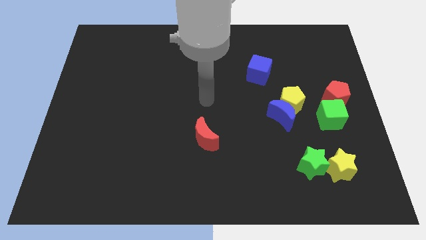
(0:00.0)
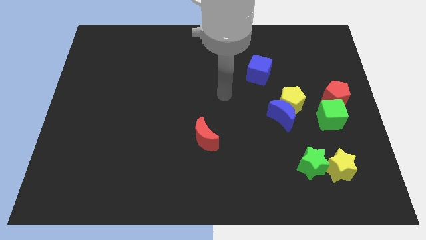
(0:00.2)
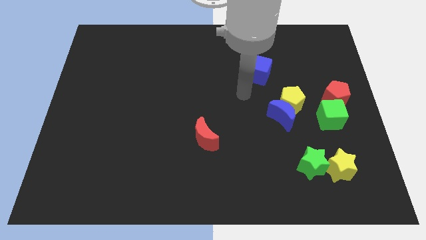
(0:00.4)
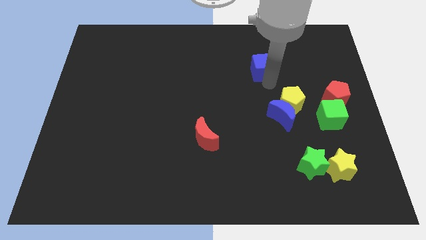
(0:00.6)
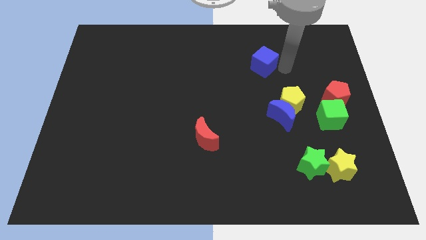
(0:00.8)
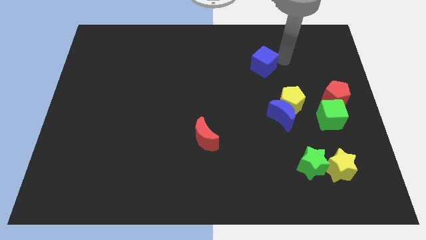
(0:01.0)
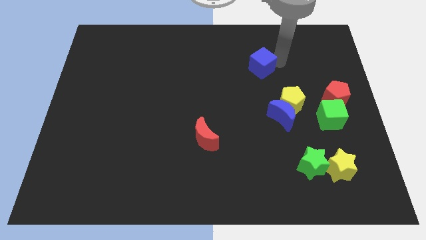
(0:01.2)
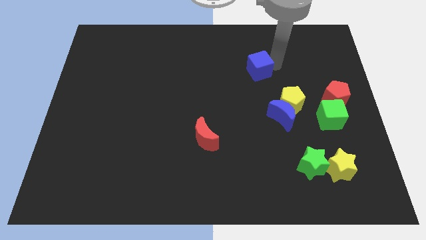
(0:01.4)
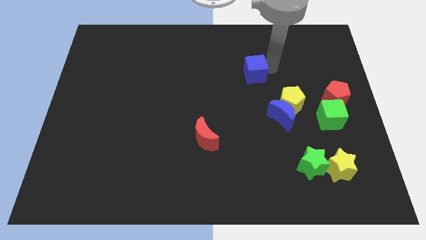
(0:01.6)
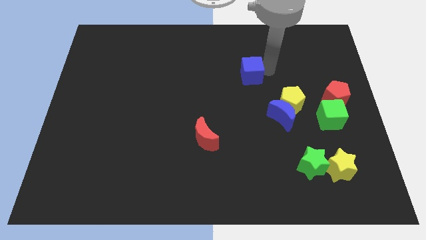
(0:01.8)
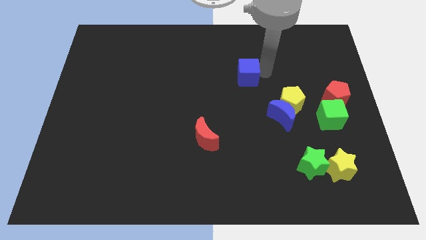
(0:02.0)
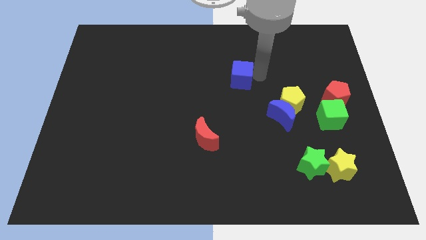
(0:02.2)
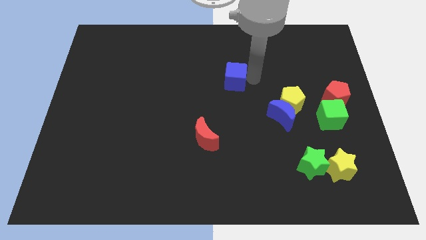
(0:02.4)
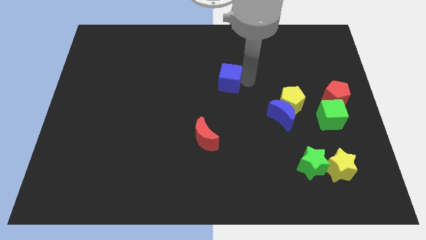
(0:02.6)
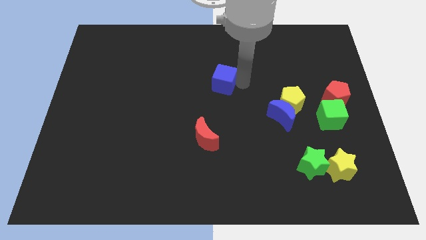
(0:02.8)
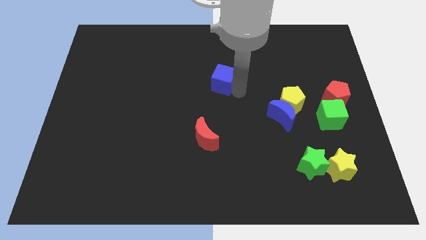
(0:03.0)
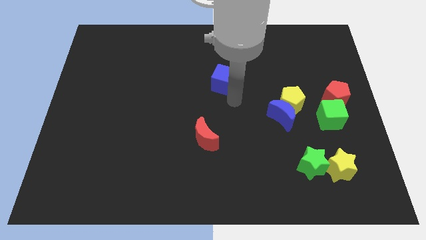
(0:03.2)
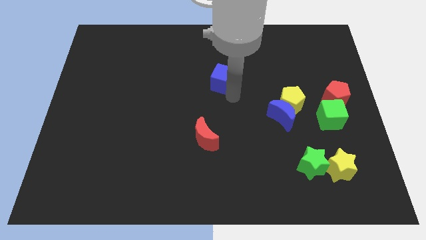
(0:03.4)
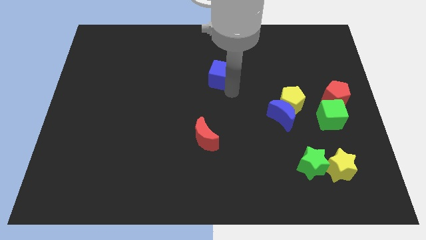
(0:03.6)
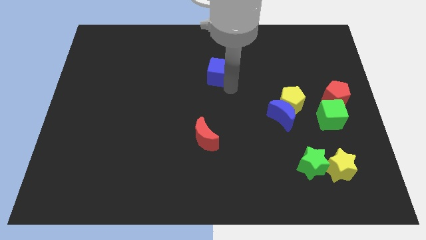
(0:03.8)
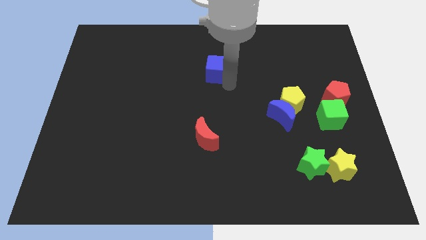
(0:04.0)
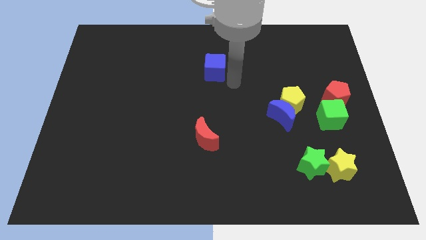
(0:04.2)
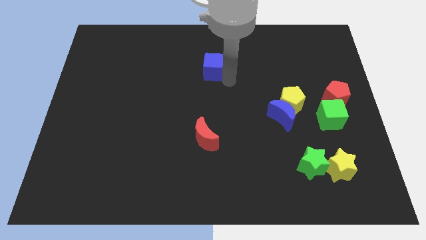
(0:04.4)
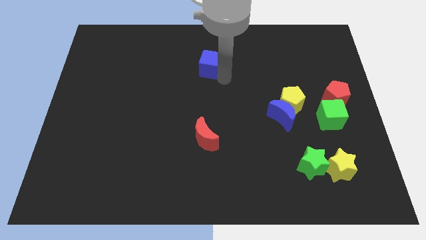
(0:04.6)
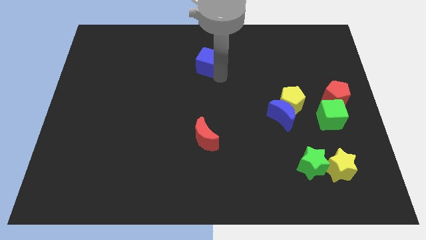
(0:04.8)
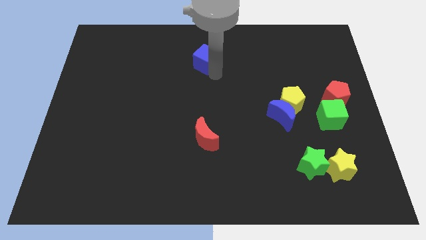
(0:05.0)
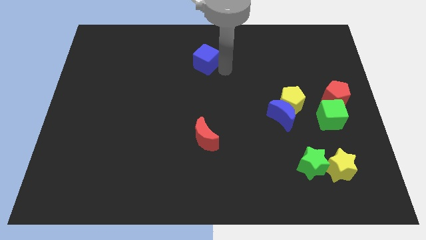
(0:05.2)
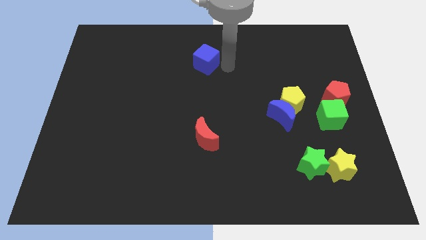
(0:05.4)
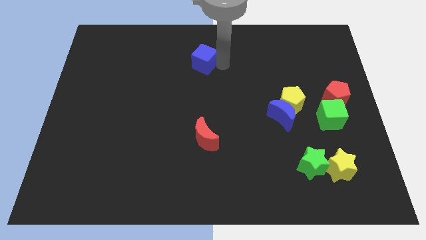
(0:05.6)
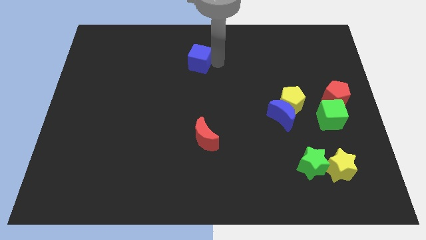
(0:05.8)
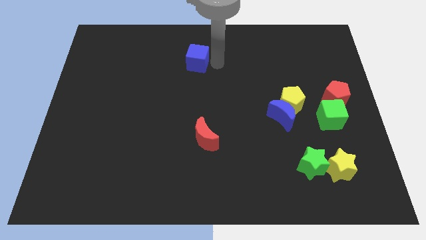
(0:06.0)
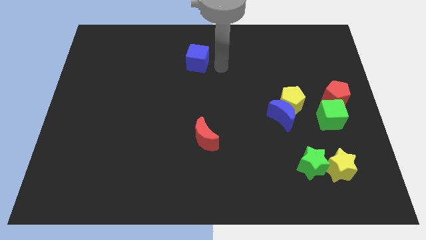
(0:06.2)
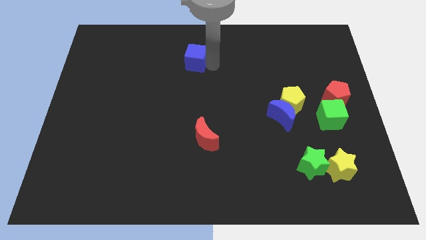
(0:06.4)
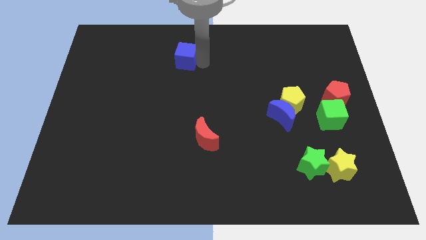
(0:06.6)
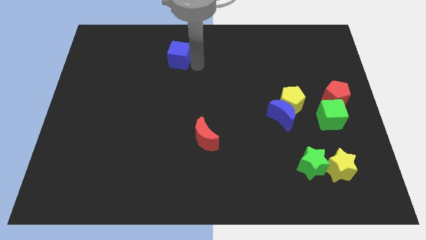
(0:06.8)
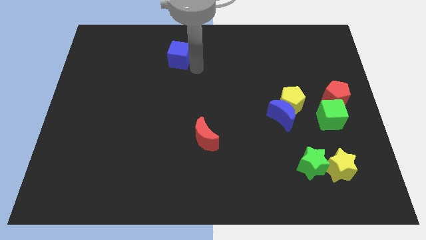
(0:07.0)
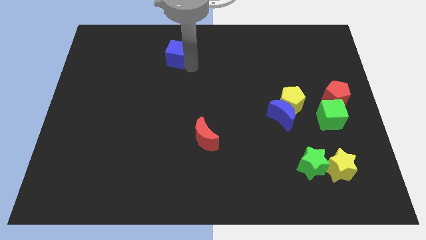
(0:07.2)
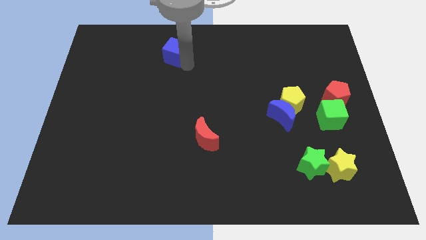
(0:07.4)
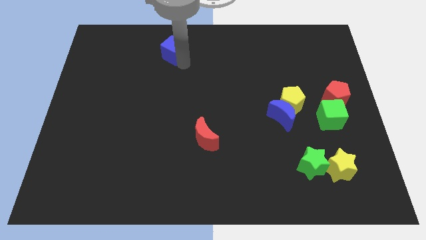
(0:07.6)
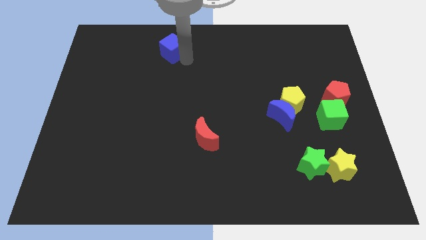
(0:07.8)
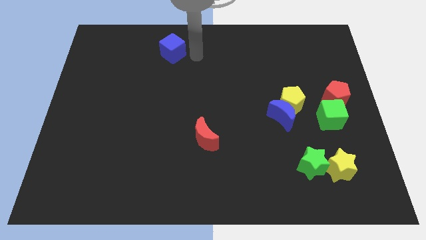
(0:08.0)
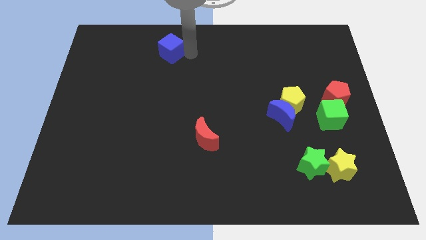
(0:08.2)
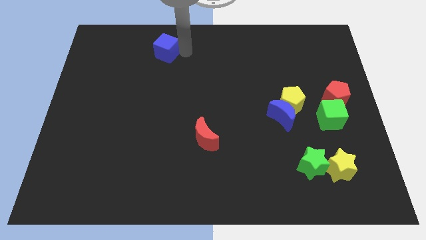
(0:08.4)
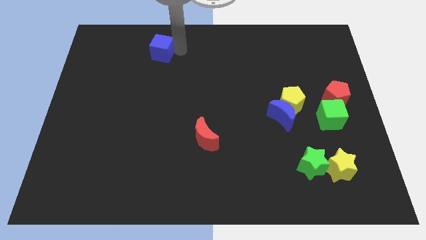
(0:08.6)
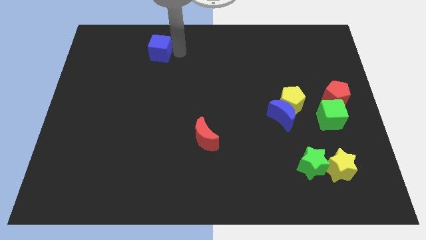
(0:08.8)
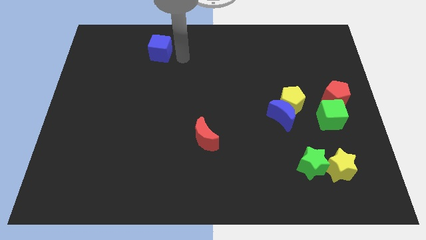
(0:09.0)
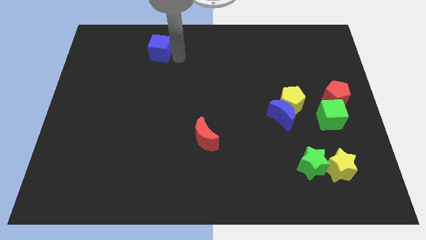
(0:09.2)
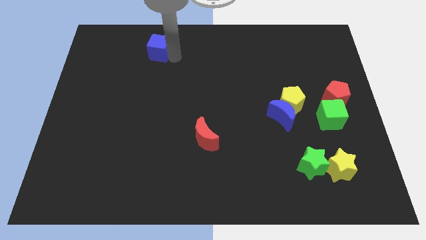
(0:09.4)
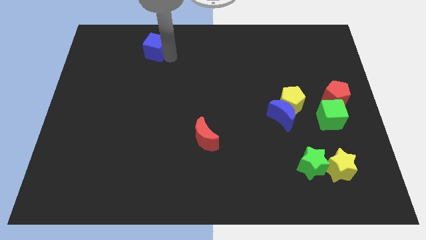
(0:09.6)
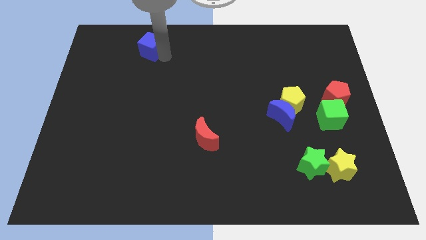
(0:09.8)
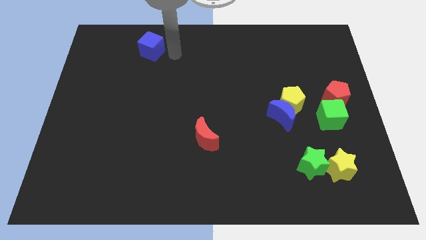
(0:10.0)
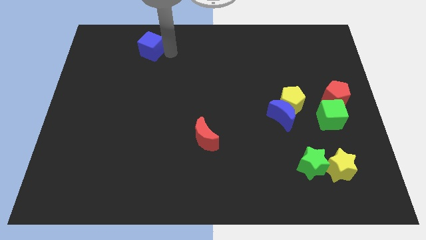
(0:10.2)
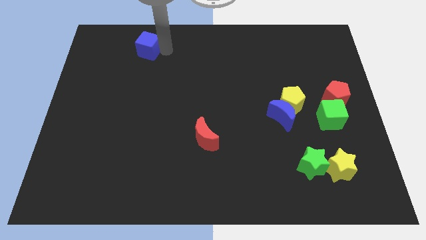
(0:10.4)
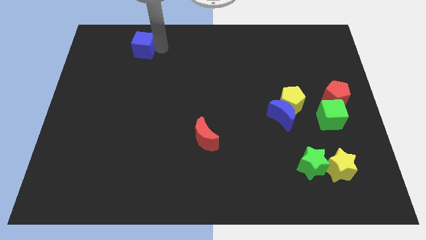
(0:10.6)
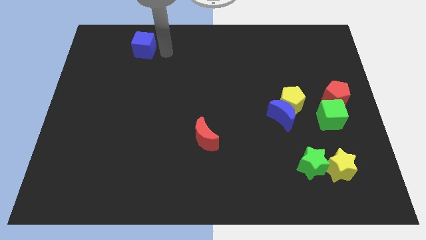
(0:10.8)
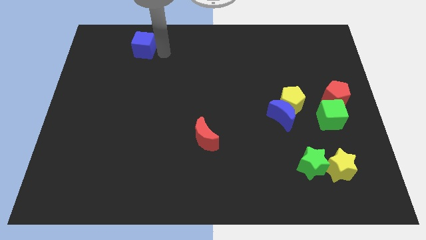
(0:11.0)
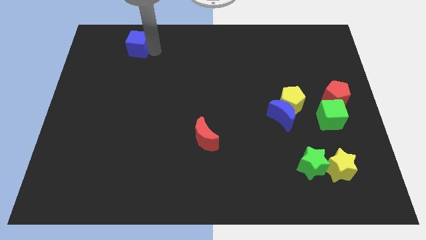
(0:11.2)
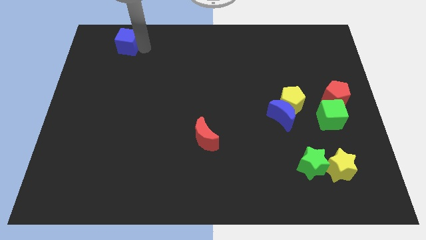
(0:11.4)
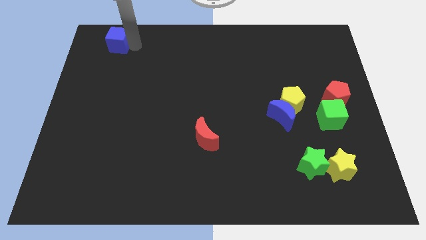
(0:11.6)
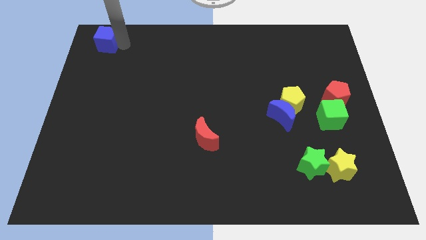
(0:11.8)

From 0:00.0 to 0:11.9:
move the blue cube to the upper left corner

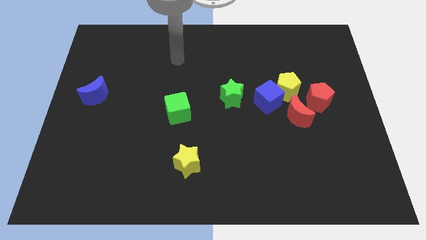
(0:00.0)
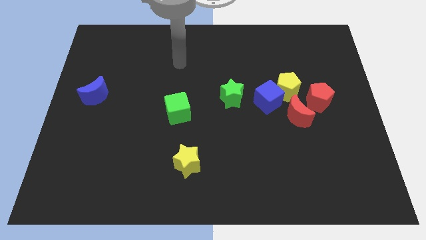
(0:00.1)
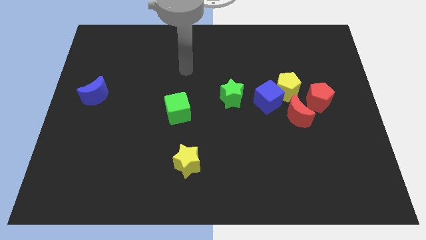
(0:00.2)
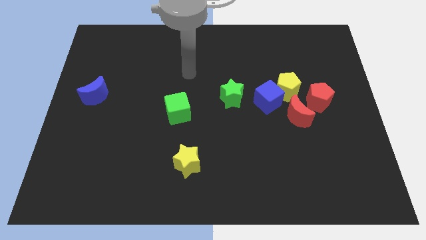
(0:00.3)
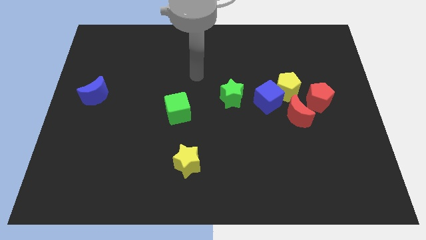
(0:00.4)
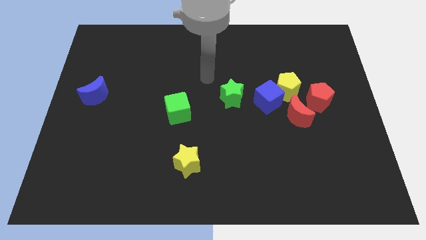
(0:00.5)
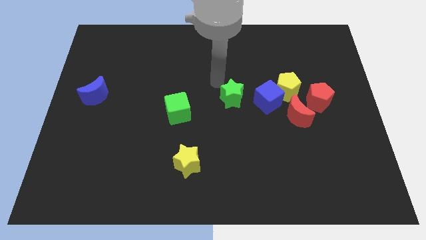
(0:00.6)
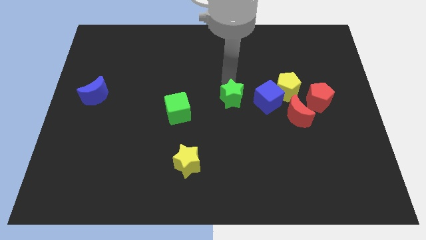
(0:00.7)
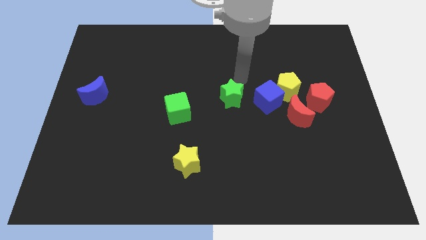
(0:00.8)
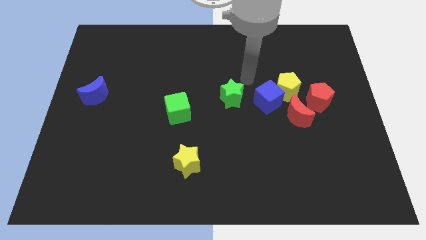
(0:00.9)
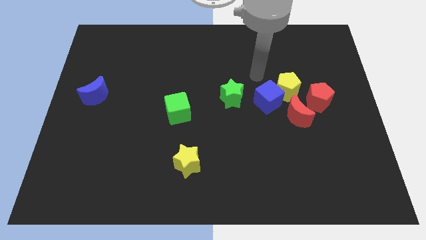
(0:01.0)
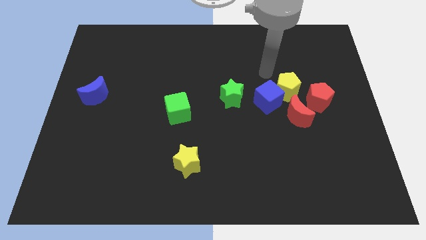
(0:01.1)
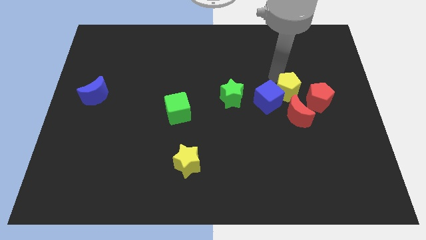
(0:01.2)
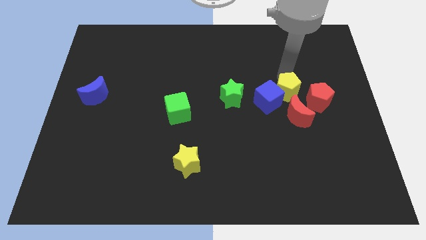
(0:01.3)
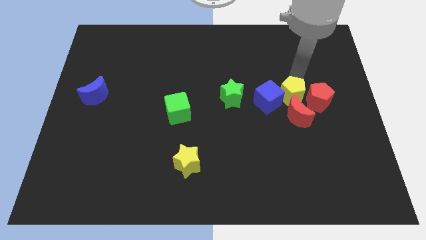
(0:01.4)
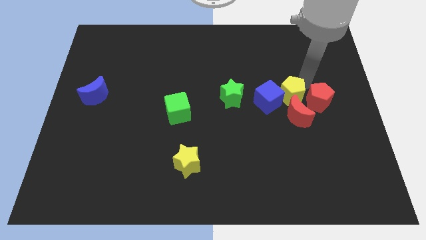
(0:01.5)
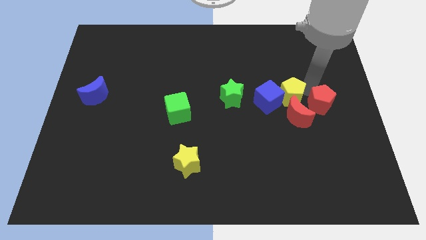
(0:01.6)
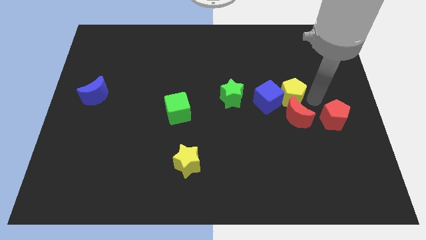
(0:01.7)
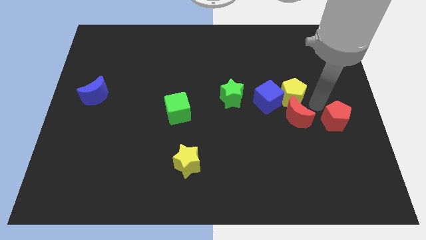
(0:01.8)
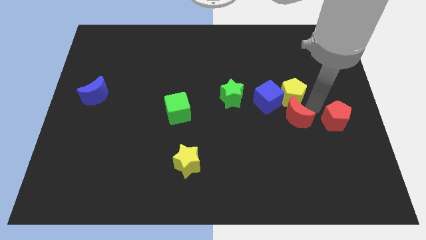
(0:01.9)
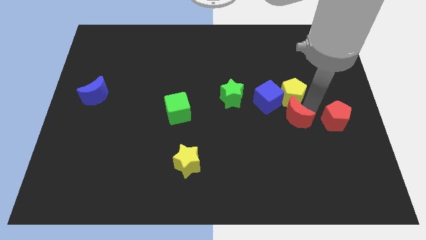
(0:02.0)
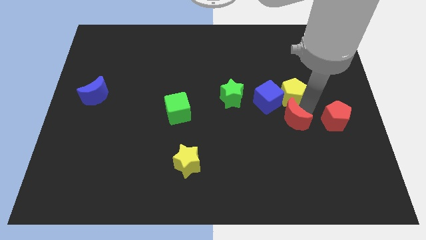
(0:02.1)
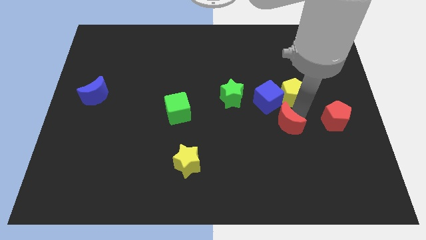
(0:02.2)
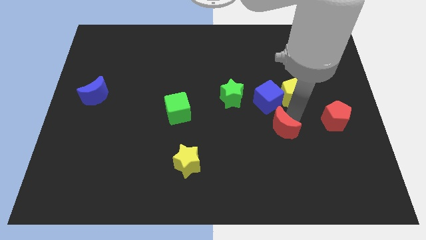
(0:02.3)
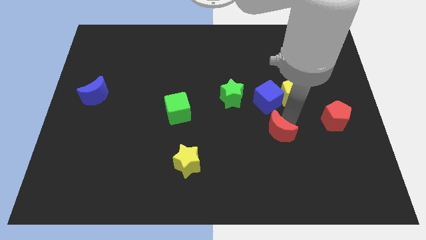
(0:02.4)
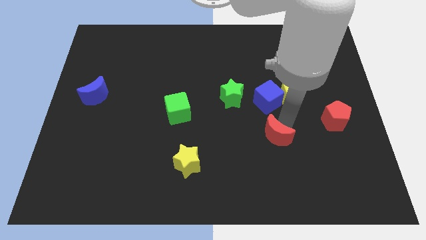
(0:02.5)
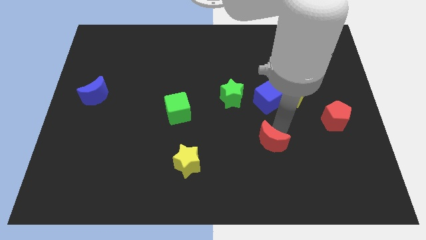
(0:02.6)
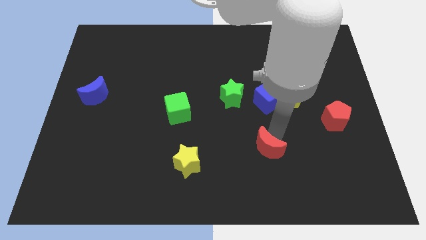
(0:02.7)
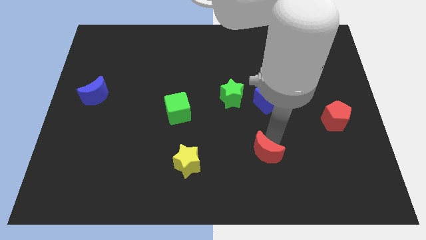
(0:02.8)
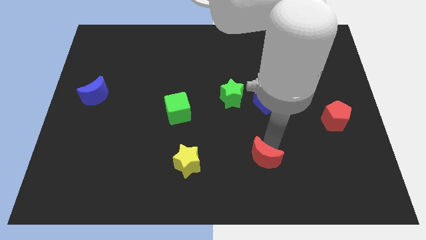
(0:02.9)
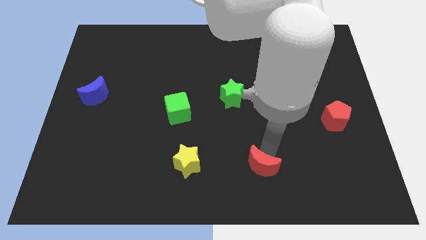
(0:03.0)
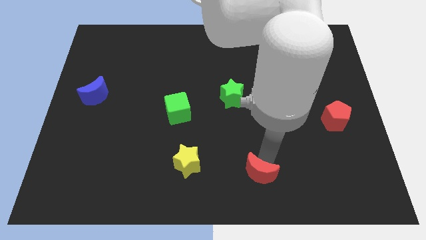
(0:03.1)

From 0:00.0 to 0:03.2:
move the red moon to the bottom
